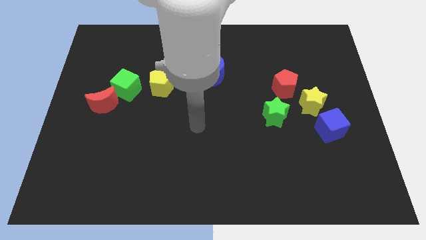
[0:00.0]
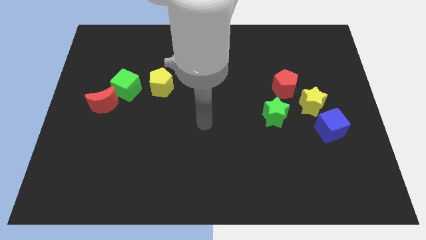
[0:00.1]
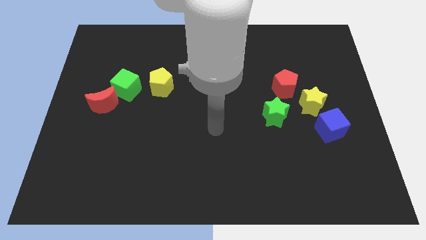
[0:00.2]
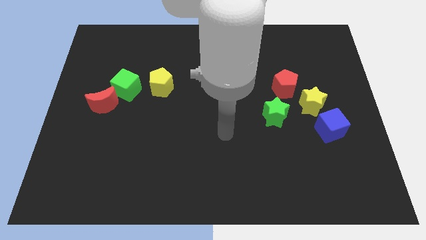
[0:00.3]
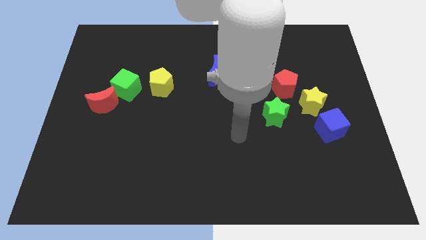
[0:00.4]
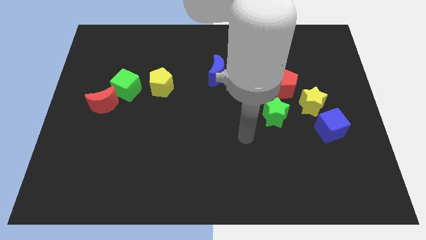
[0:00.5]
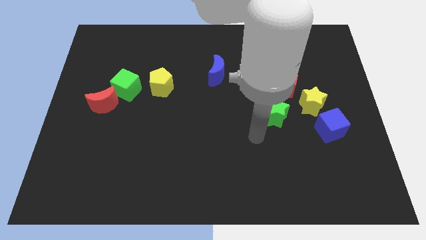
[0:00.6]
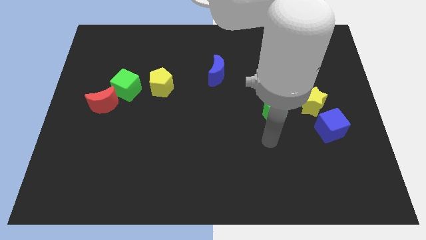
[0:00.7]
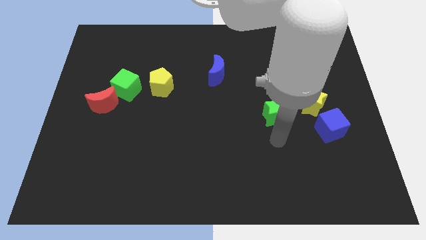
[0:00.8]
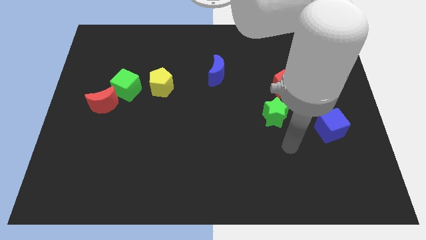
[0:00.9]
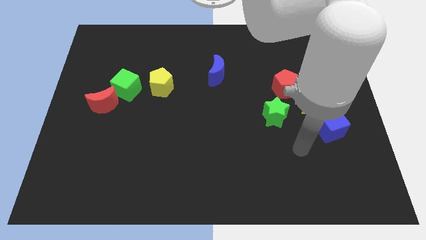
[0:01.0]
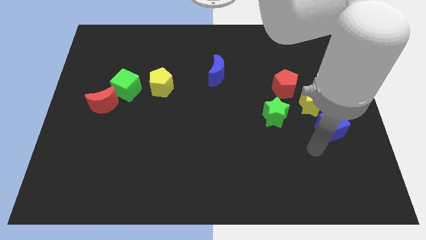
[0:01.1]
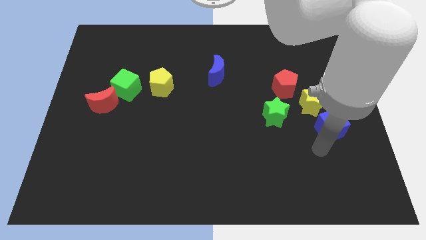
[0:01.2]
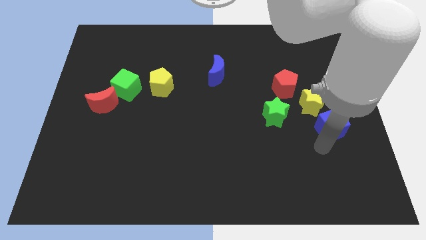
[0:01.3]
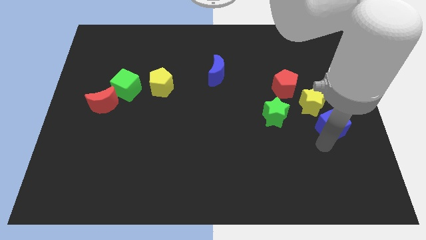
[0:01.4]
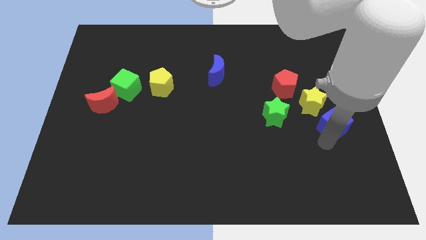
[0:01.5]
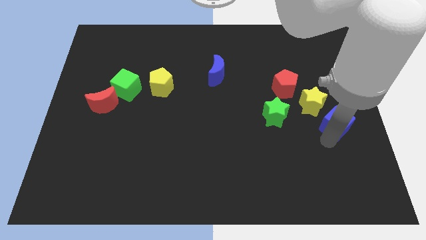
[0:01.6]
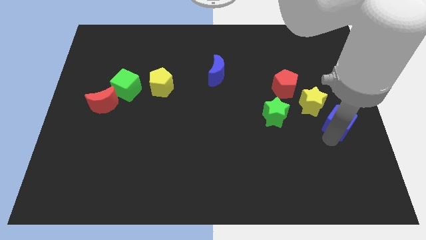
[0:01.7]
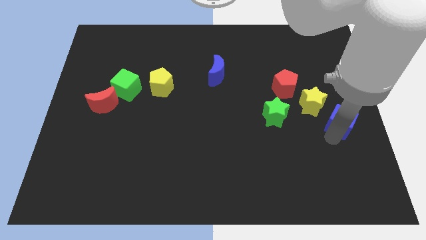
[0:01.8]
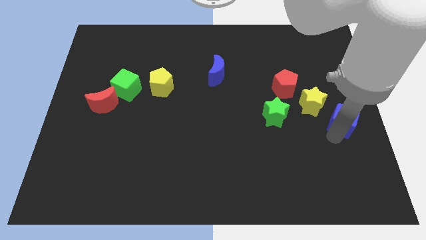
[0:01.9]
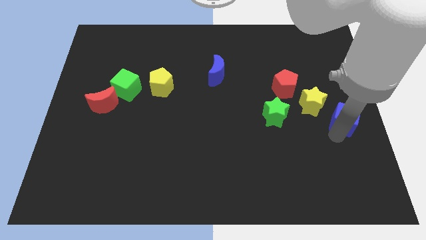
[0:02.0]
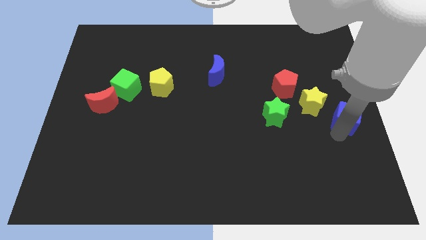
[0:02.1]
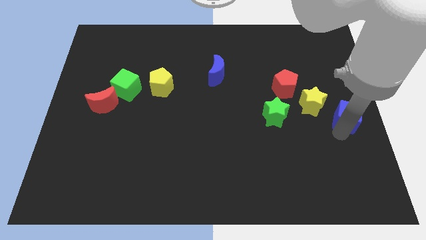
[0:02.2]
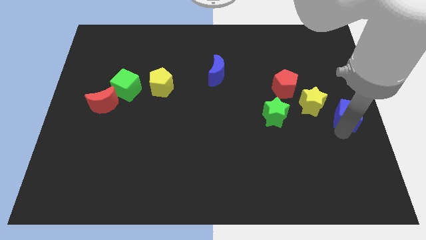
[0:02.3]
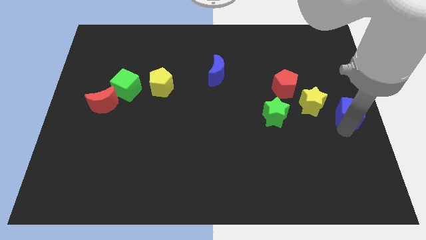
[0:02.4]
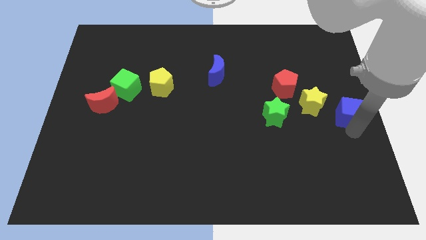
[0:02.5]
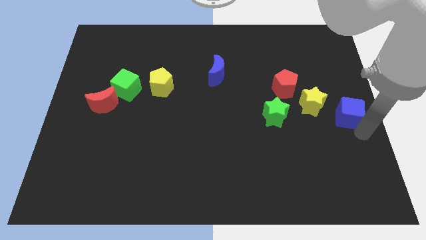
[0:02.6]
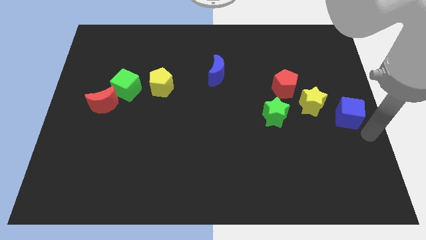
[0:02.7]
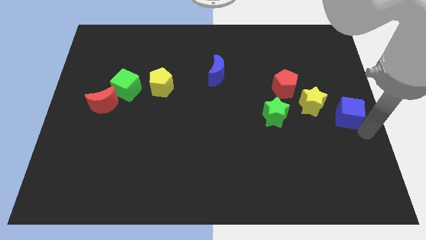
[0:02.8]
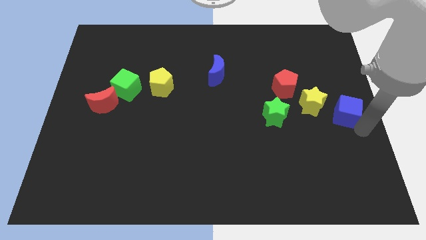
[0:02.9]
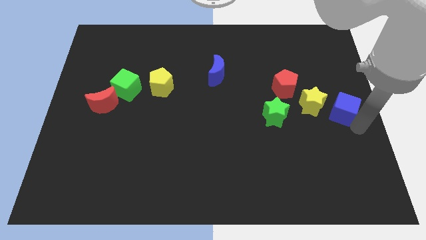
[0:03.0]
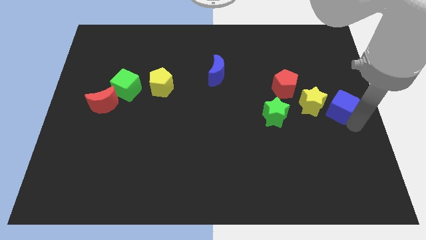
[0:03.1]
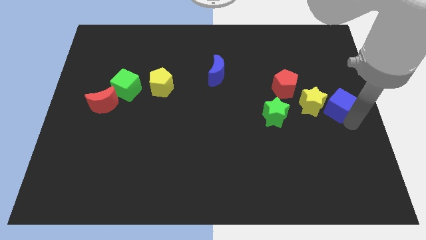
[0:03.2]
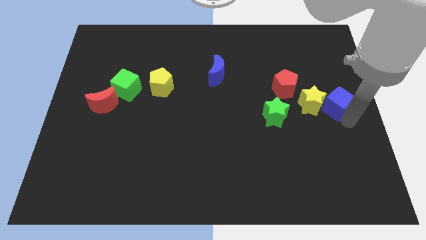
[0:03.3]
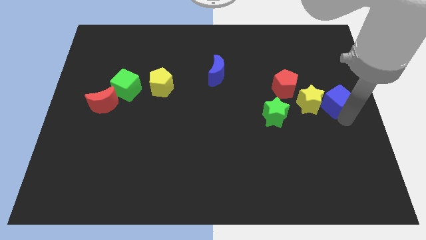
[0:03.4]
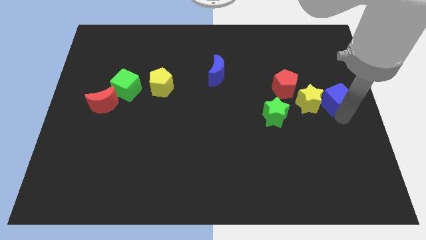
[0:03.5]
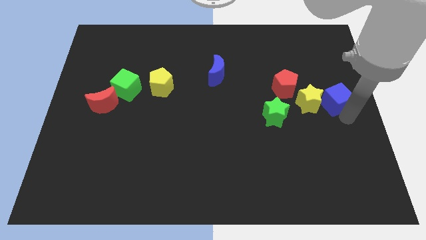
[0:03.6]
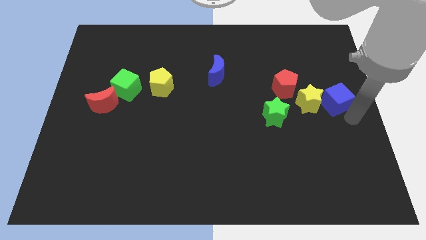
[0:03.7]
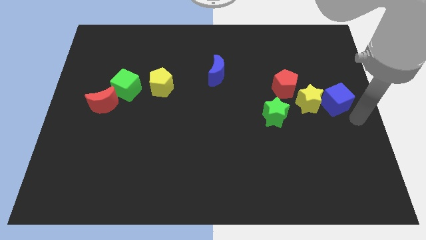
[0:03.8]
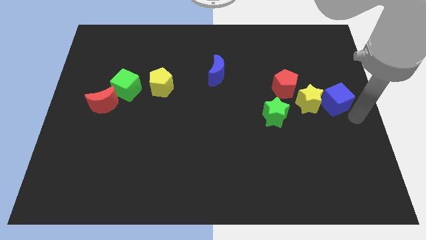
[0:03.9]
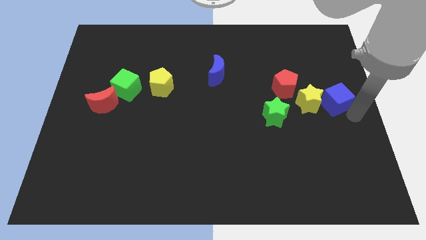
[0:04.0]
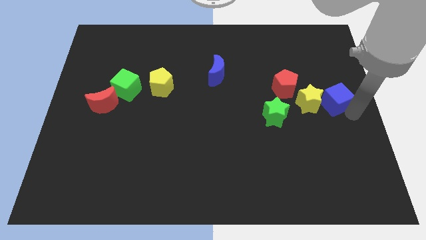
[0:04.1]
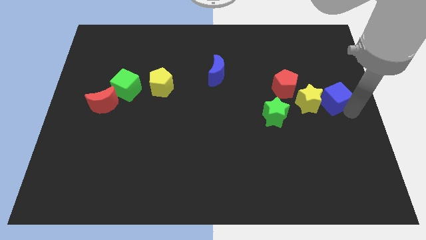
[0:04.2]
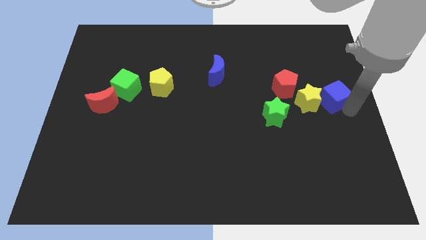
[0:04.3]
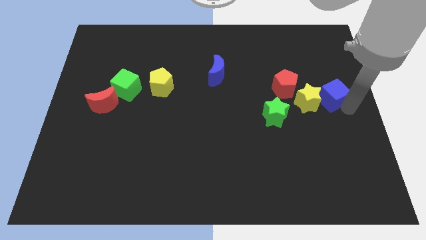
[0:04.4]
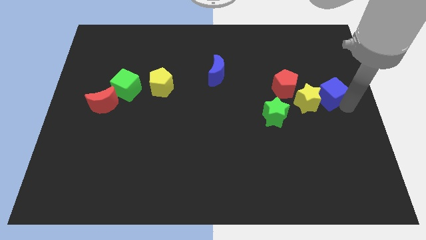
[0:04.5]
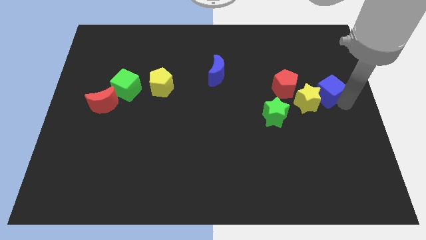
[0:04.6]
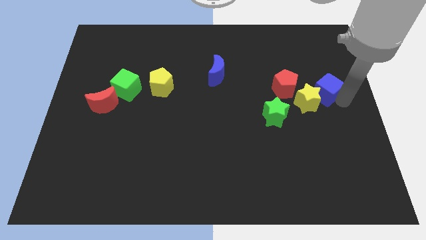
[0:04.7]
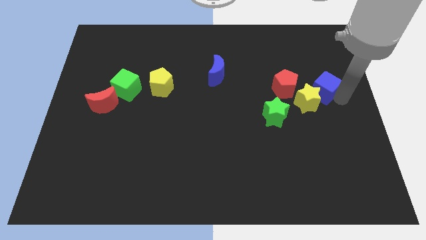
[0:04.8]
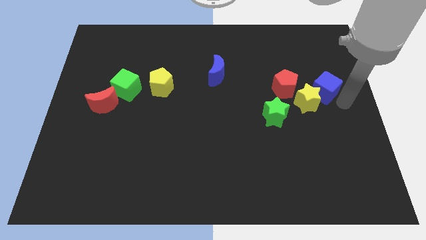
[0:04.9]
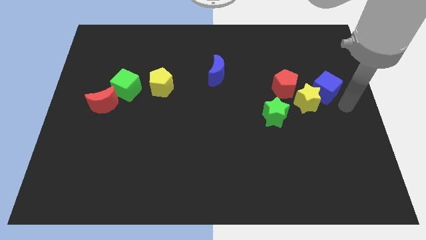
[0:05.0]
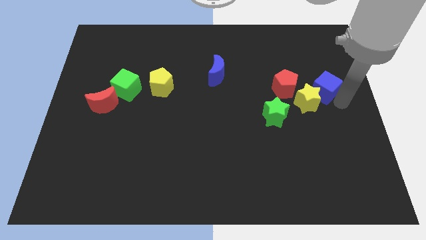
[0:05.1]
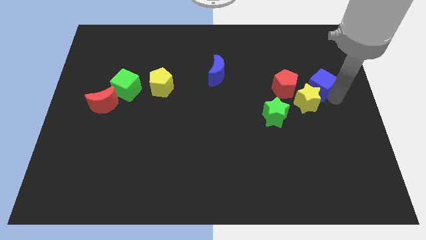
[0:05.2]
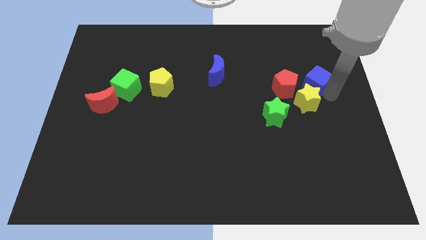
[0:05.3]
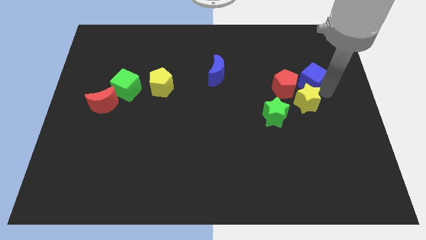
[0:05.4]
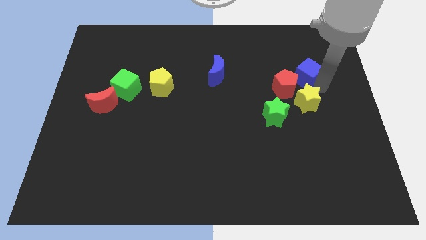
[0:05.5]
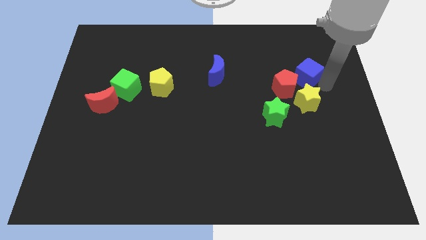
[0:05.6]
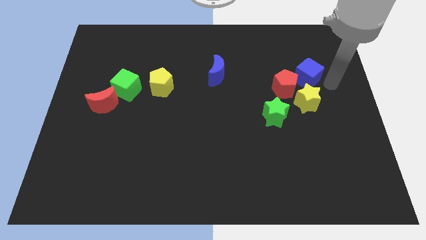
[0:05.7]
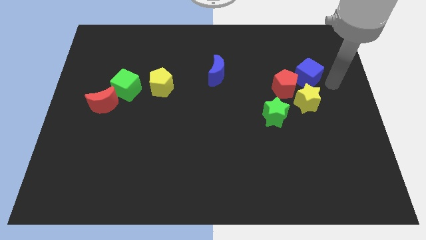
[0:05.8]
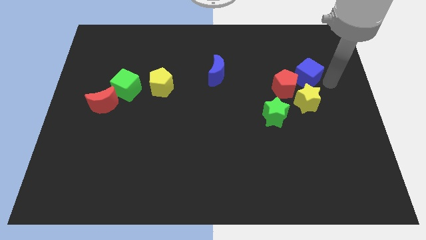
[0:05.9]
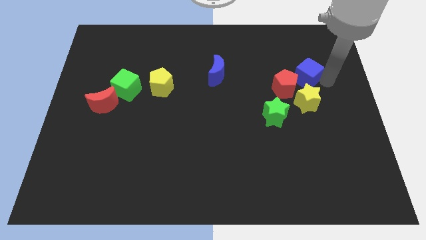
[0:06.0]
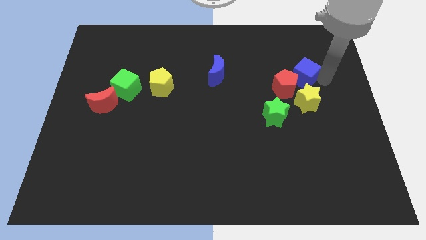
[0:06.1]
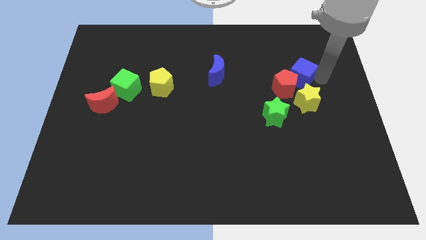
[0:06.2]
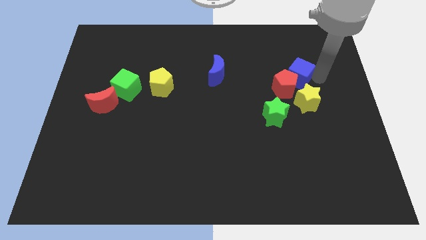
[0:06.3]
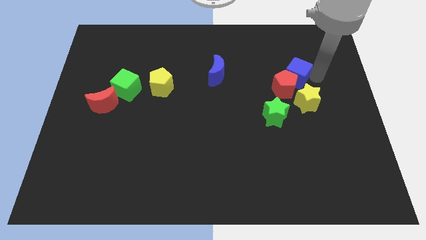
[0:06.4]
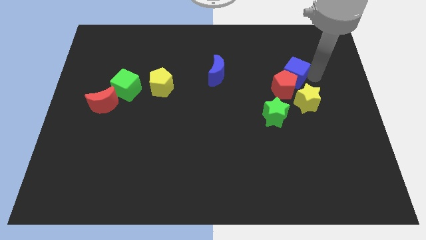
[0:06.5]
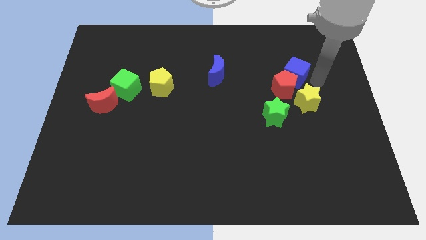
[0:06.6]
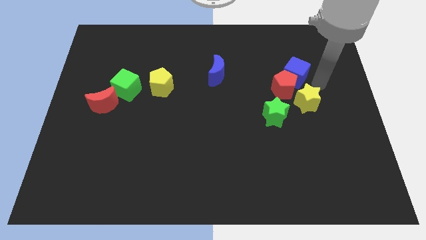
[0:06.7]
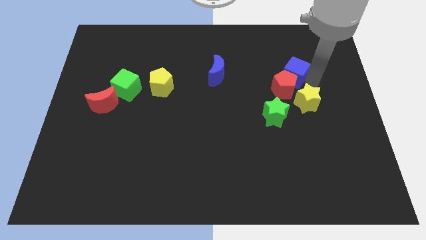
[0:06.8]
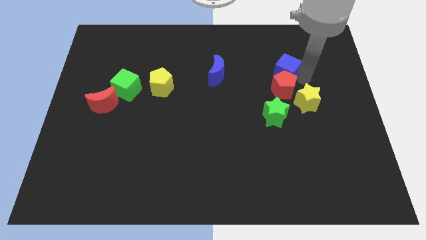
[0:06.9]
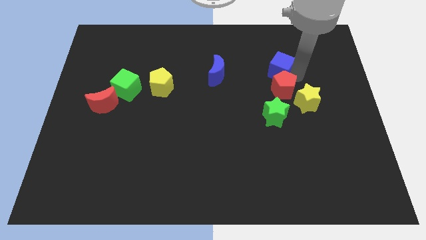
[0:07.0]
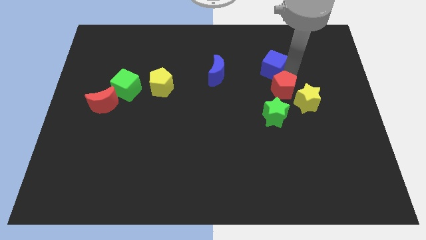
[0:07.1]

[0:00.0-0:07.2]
slide the blue cube upwards and left diagonally

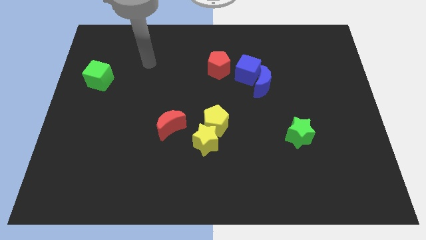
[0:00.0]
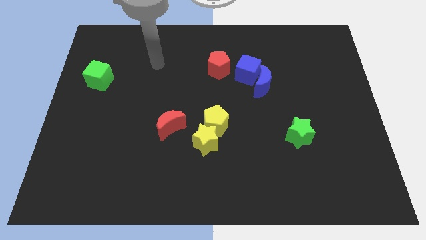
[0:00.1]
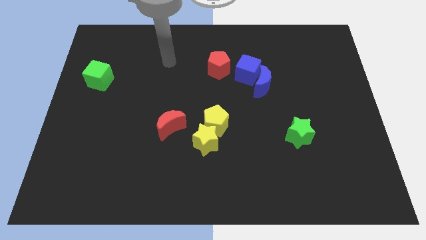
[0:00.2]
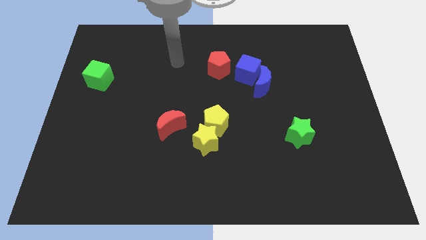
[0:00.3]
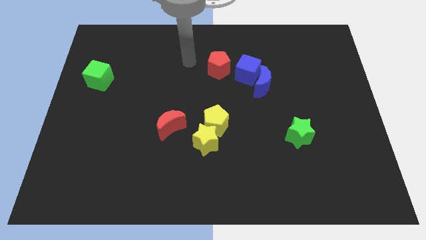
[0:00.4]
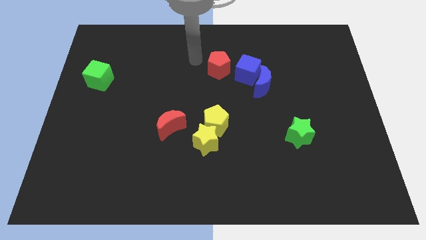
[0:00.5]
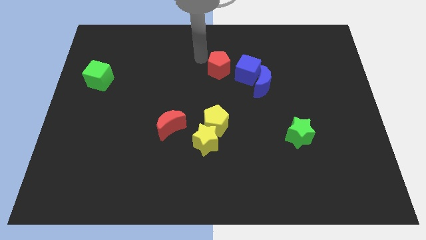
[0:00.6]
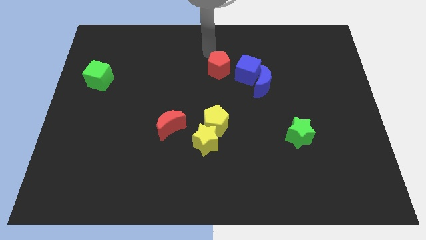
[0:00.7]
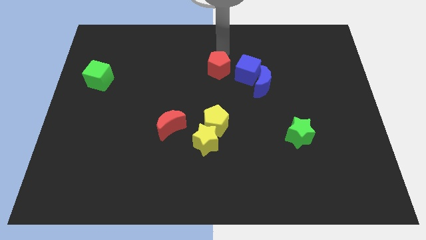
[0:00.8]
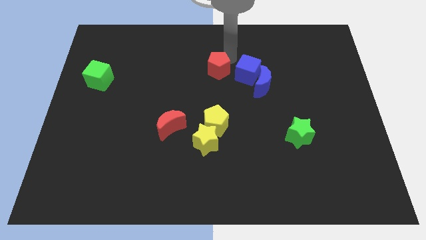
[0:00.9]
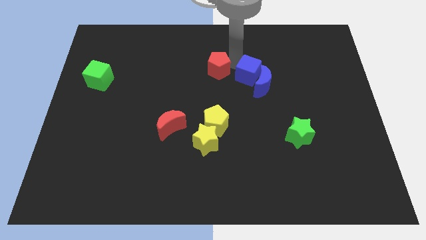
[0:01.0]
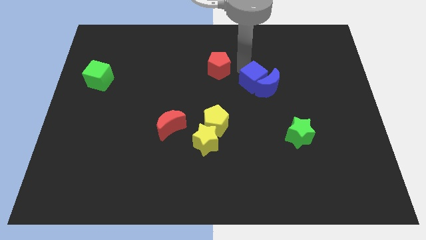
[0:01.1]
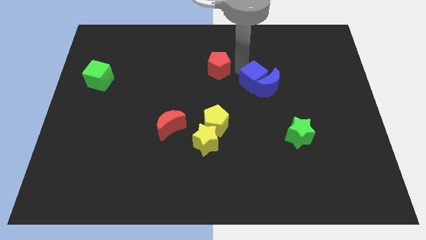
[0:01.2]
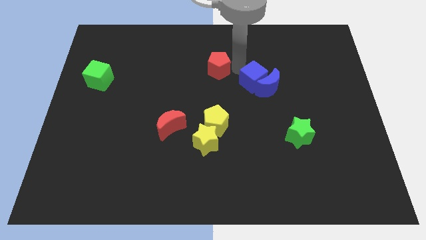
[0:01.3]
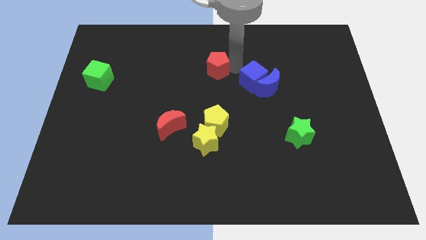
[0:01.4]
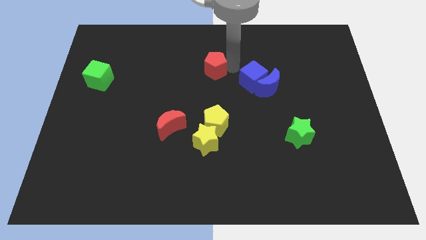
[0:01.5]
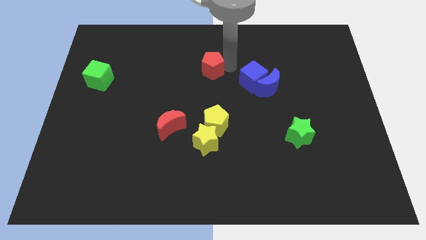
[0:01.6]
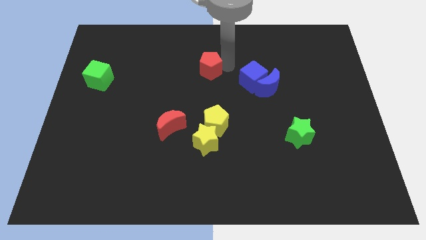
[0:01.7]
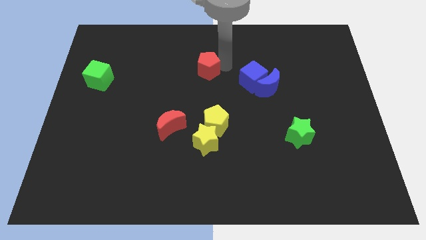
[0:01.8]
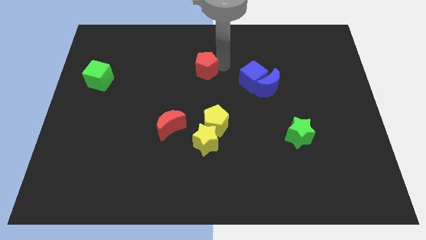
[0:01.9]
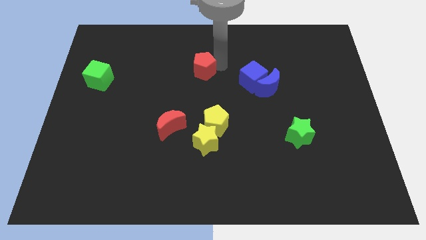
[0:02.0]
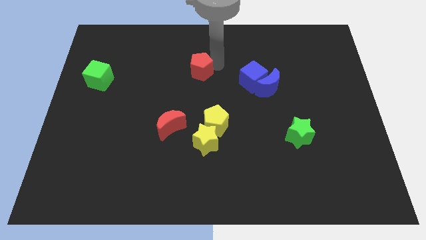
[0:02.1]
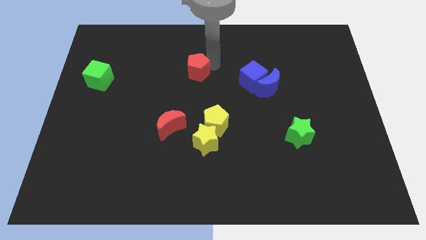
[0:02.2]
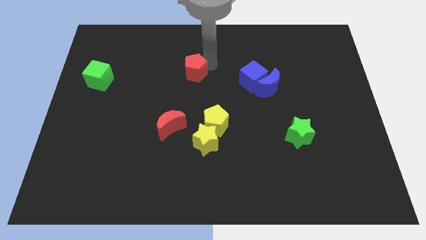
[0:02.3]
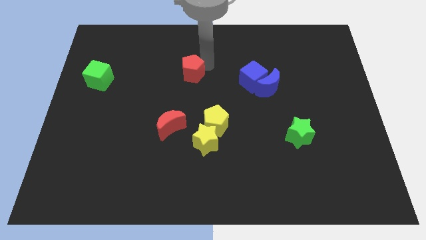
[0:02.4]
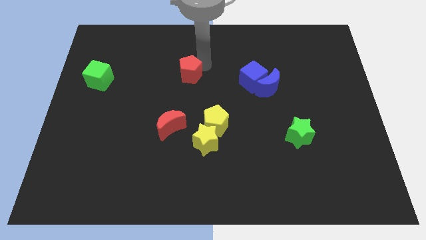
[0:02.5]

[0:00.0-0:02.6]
move the red pentagon slightly to the left
